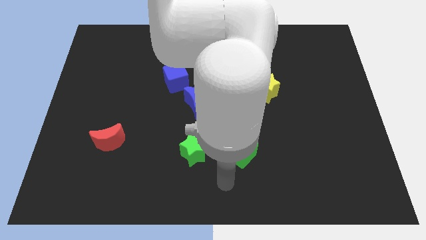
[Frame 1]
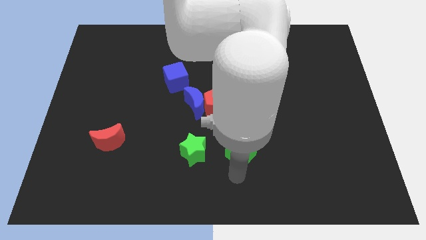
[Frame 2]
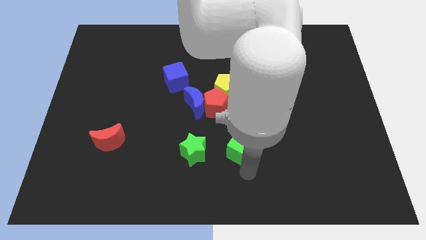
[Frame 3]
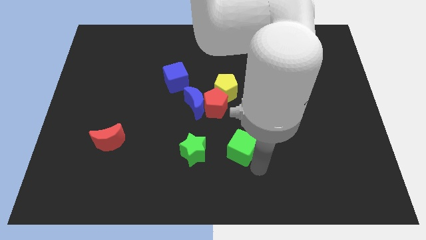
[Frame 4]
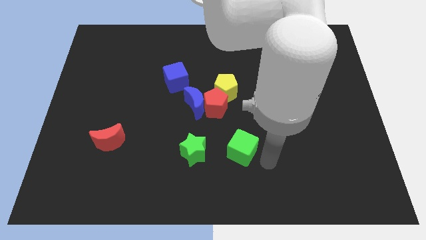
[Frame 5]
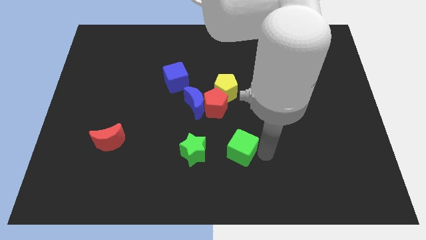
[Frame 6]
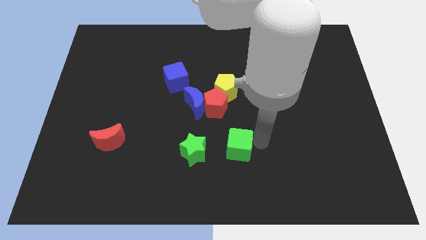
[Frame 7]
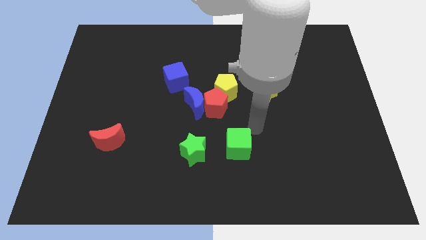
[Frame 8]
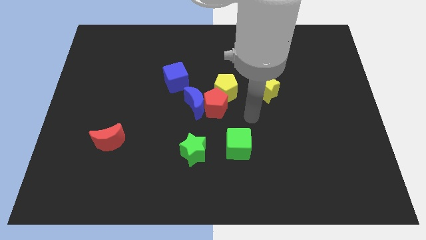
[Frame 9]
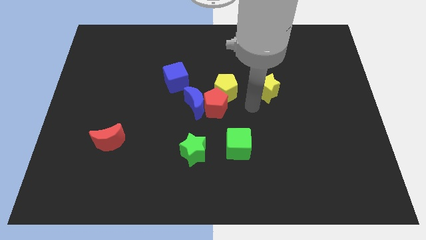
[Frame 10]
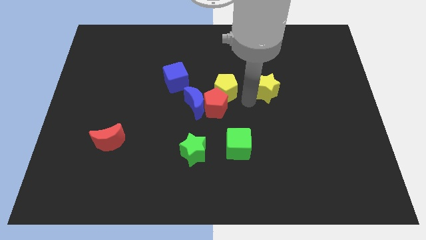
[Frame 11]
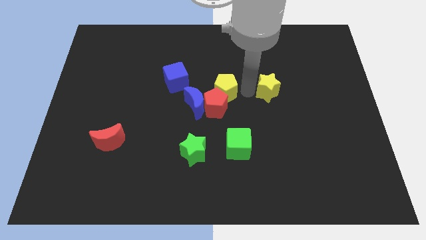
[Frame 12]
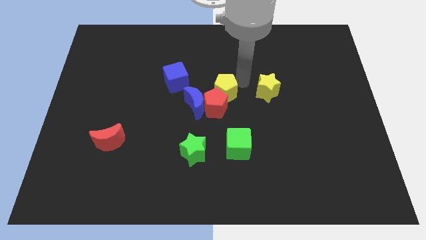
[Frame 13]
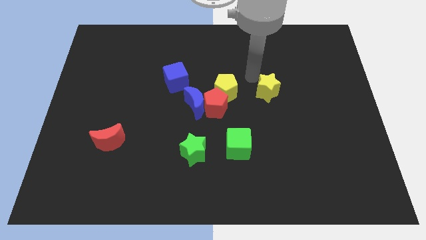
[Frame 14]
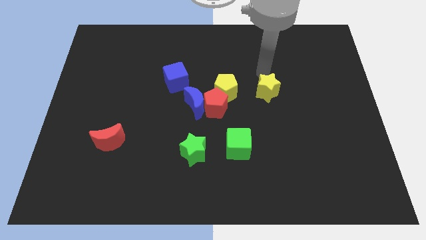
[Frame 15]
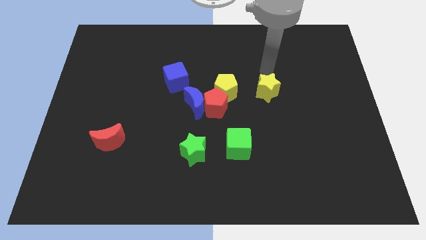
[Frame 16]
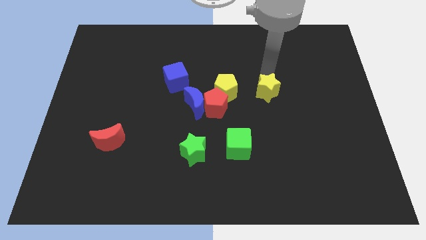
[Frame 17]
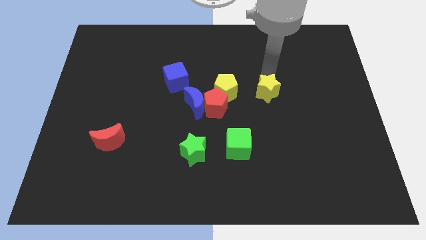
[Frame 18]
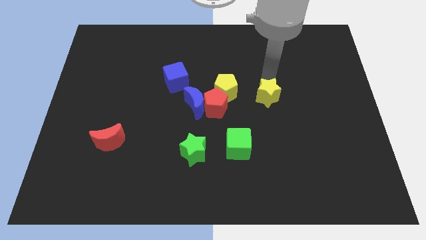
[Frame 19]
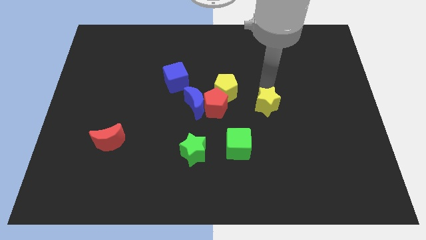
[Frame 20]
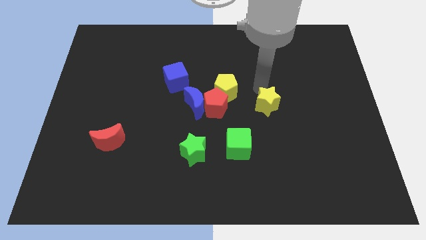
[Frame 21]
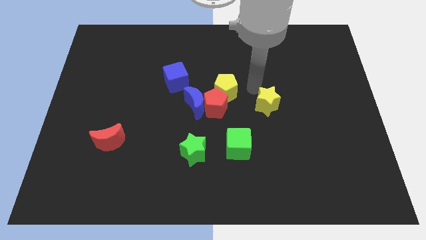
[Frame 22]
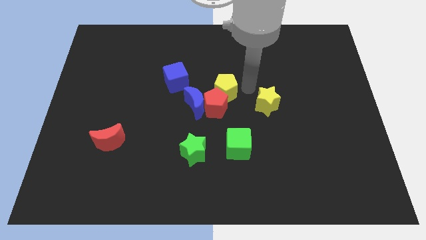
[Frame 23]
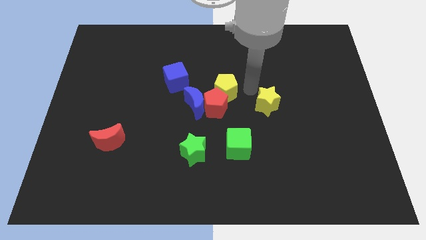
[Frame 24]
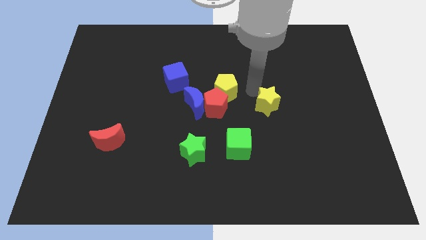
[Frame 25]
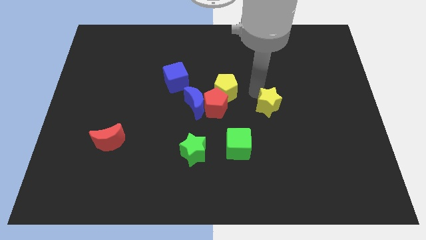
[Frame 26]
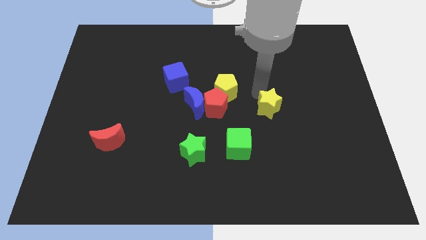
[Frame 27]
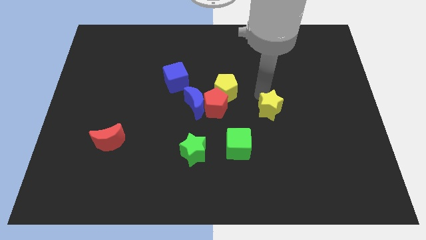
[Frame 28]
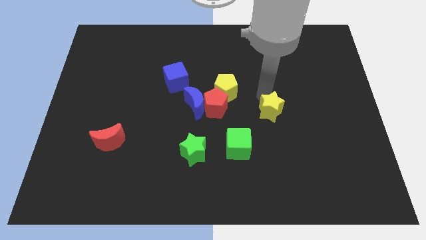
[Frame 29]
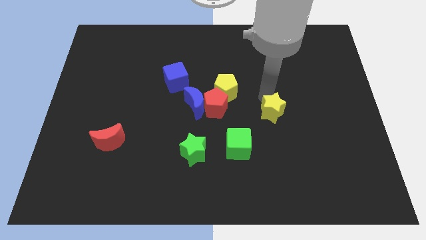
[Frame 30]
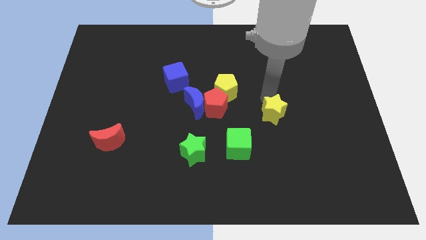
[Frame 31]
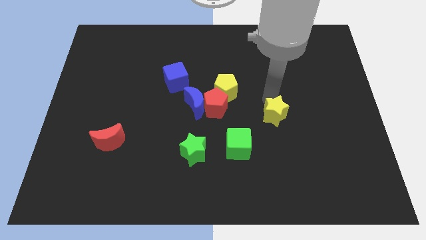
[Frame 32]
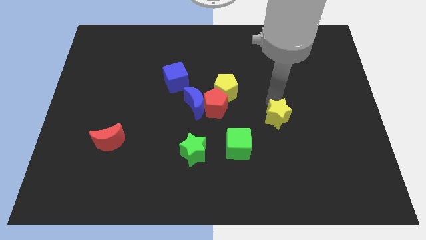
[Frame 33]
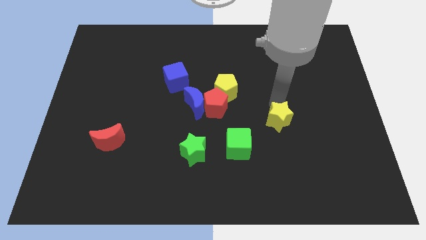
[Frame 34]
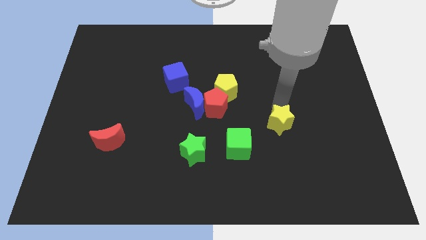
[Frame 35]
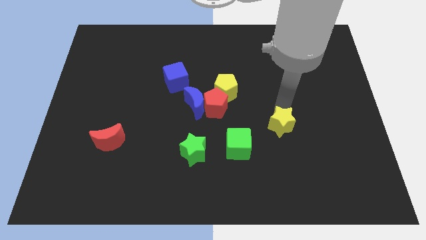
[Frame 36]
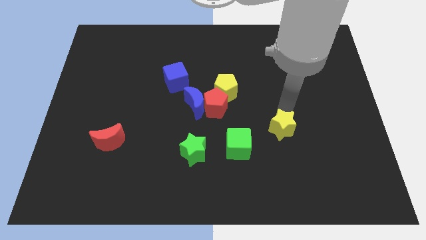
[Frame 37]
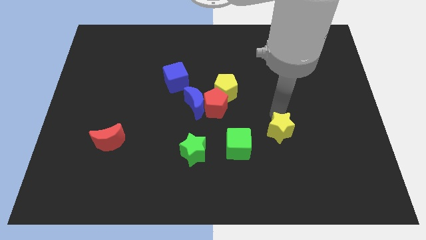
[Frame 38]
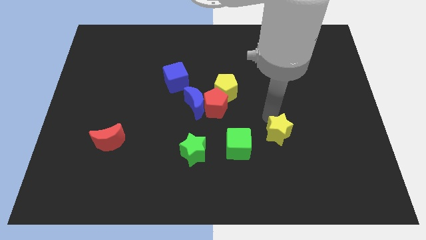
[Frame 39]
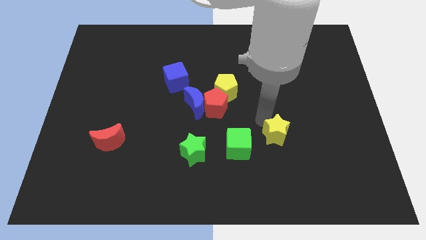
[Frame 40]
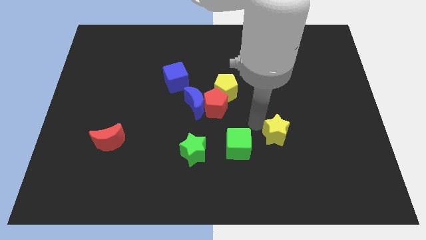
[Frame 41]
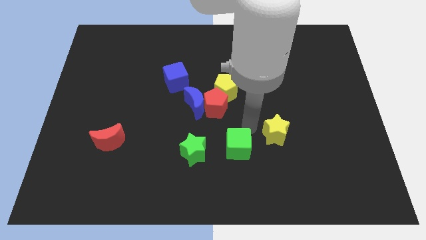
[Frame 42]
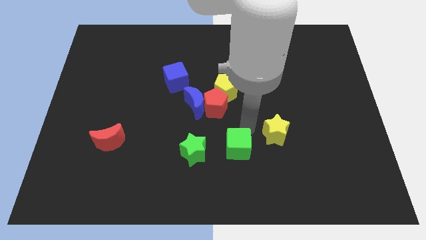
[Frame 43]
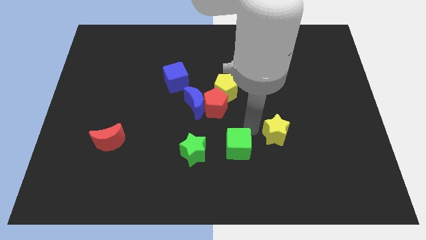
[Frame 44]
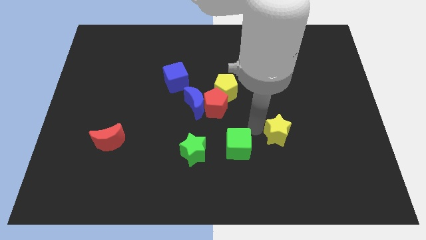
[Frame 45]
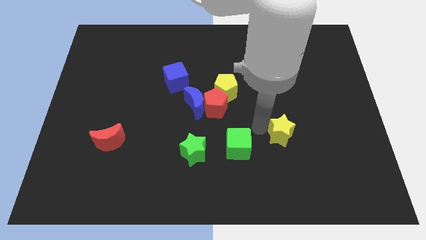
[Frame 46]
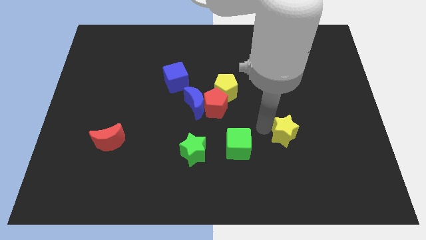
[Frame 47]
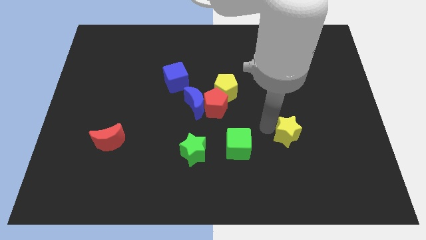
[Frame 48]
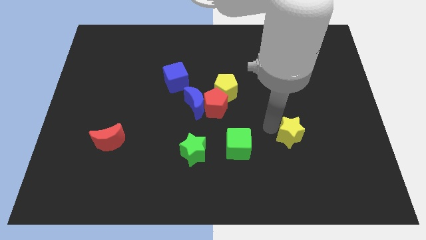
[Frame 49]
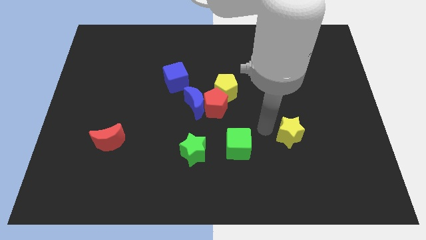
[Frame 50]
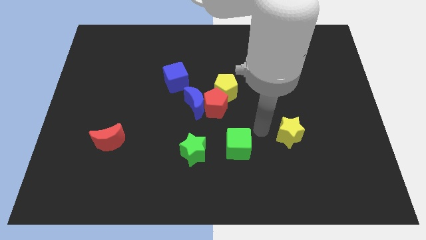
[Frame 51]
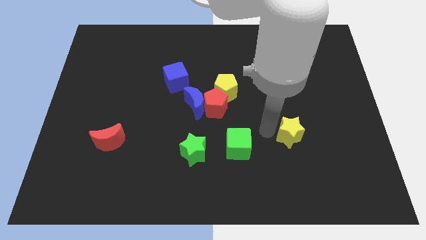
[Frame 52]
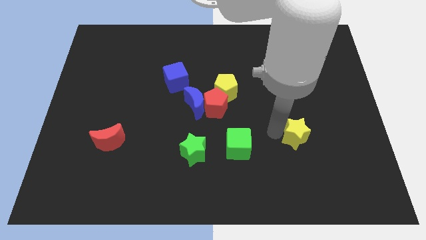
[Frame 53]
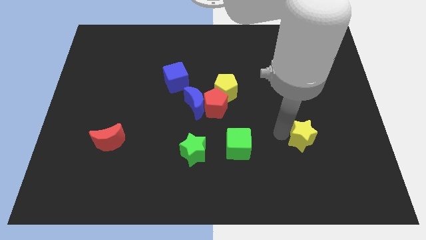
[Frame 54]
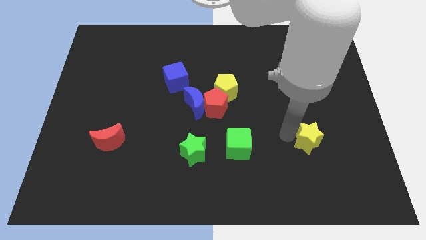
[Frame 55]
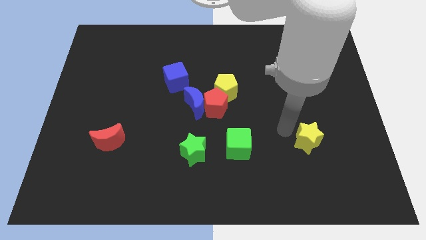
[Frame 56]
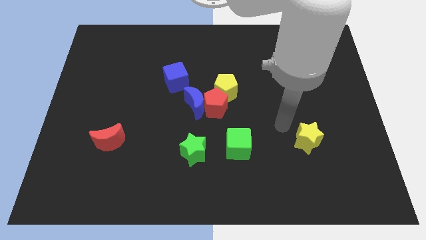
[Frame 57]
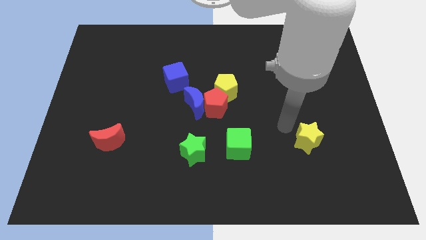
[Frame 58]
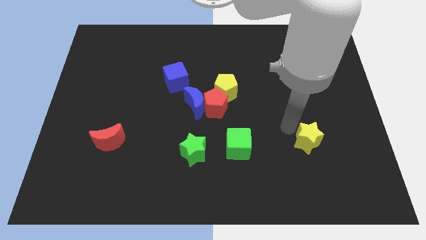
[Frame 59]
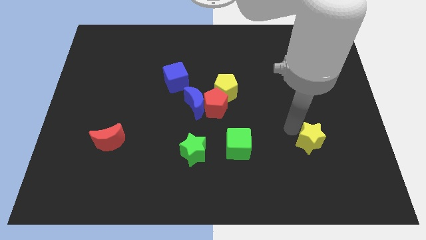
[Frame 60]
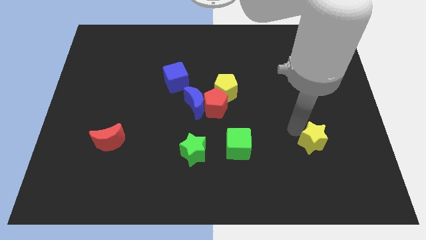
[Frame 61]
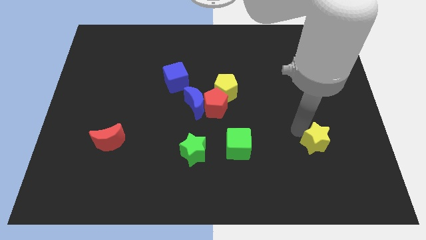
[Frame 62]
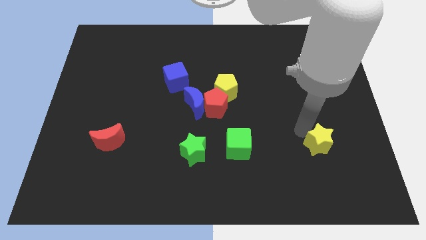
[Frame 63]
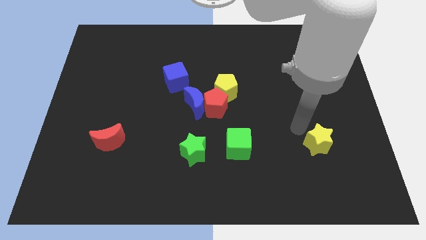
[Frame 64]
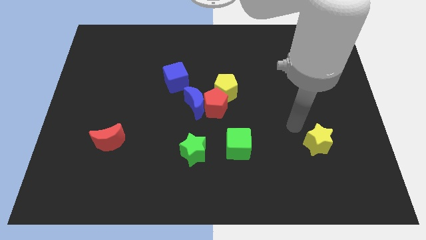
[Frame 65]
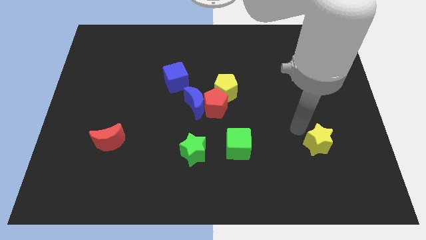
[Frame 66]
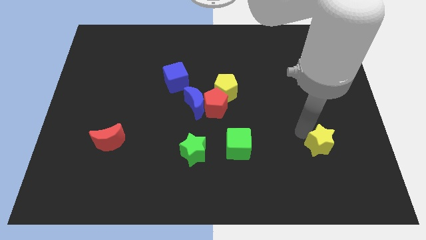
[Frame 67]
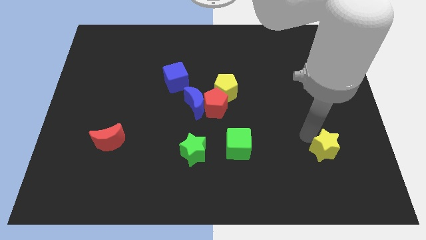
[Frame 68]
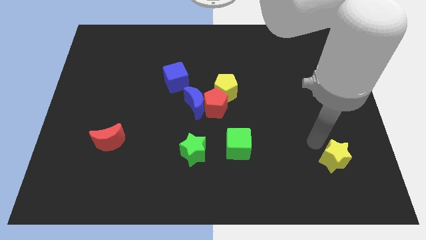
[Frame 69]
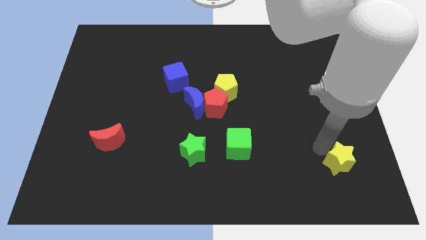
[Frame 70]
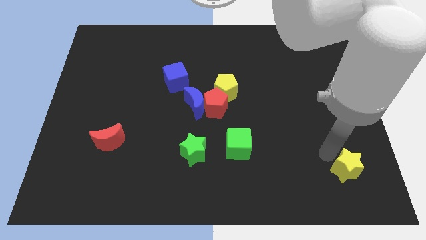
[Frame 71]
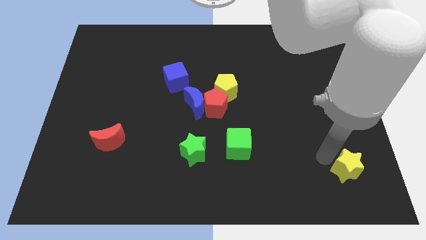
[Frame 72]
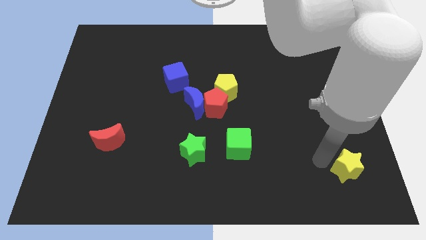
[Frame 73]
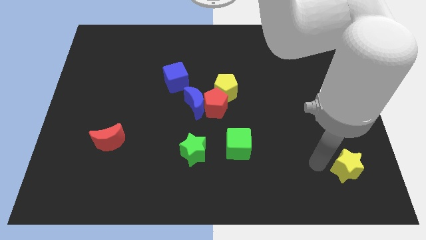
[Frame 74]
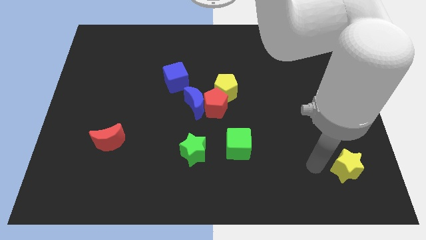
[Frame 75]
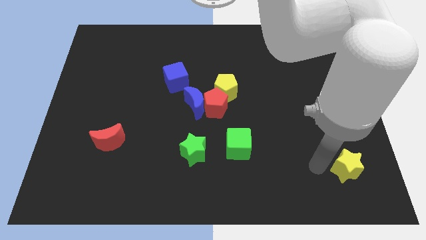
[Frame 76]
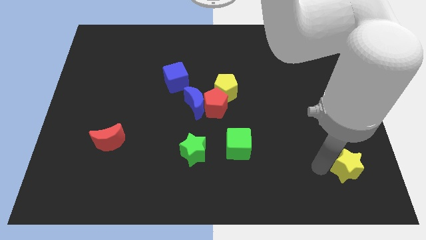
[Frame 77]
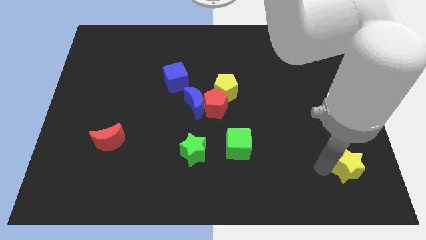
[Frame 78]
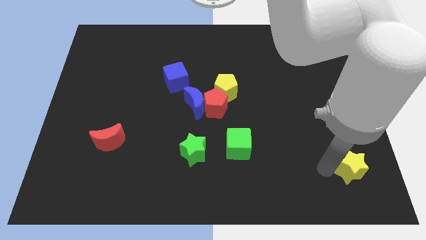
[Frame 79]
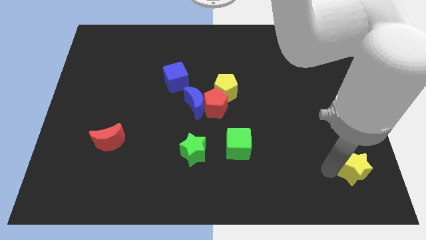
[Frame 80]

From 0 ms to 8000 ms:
slide the yellow star to the bottom right corner
